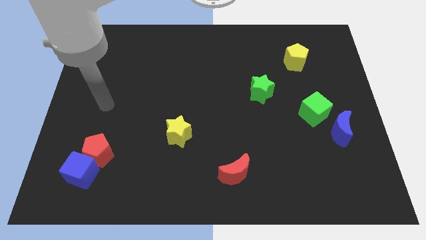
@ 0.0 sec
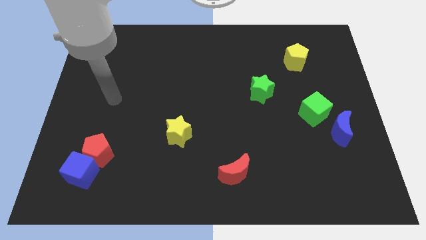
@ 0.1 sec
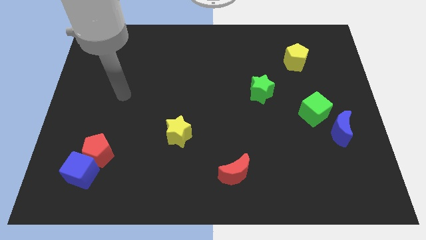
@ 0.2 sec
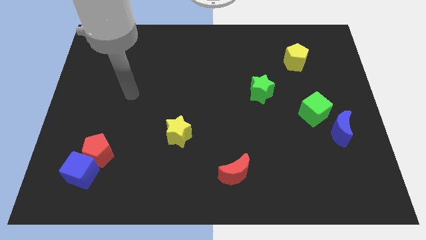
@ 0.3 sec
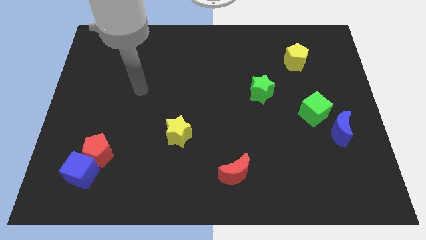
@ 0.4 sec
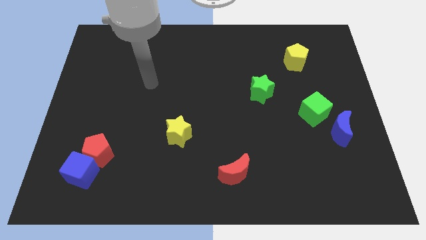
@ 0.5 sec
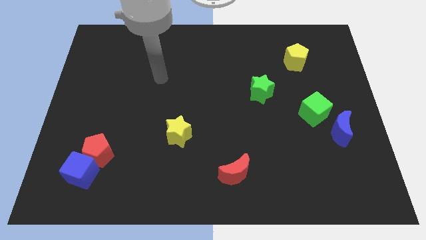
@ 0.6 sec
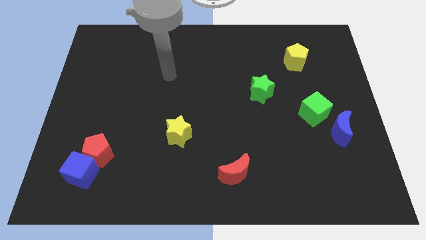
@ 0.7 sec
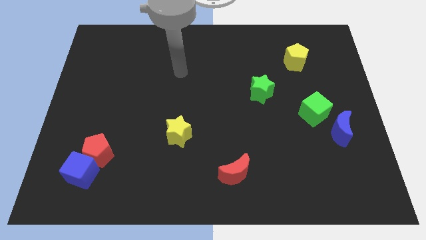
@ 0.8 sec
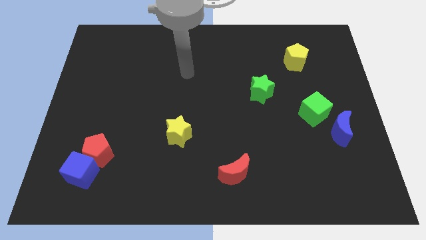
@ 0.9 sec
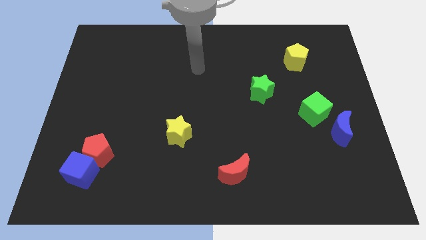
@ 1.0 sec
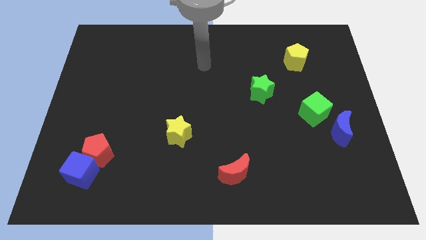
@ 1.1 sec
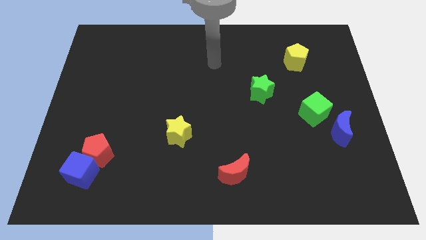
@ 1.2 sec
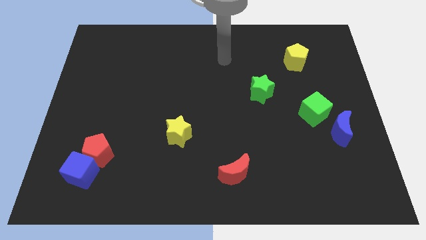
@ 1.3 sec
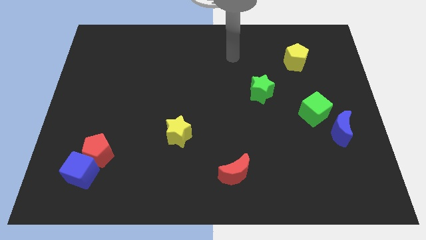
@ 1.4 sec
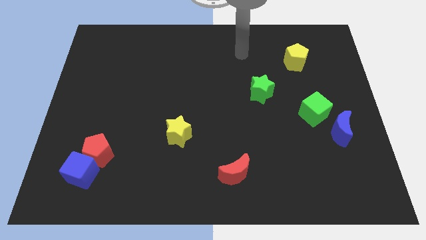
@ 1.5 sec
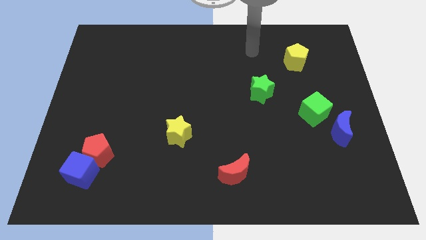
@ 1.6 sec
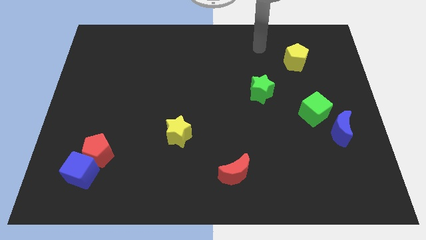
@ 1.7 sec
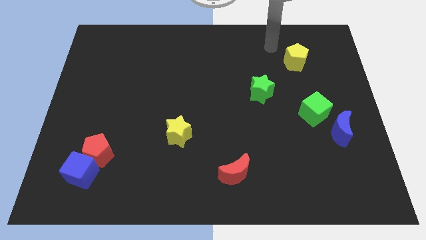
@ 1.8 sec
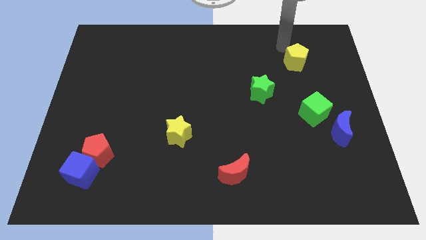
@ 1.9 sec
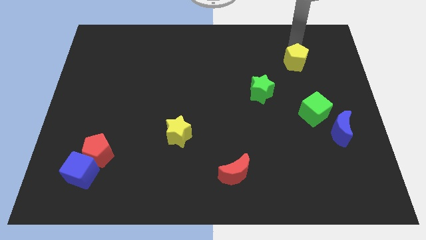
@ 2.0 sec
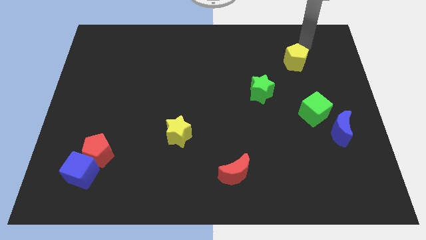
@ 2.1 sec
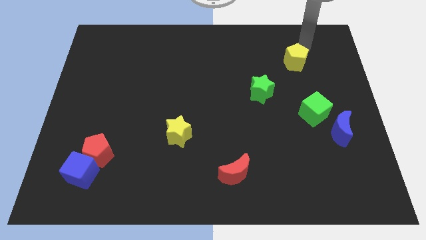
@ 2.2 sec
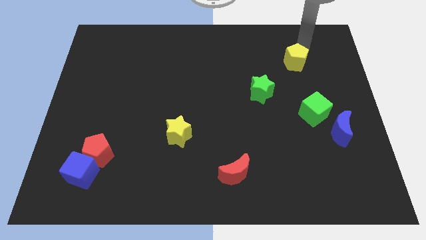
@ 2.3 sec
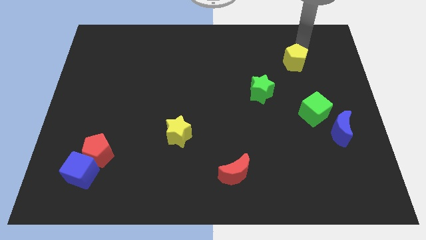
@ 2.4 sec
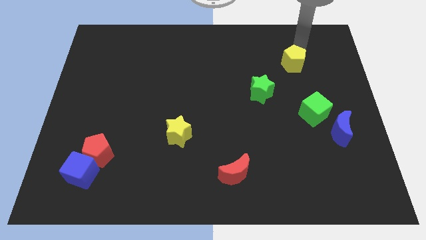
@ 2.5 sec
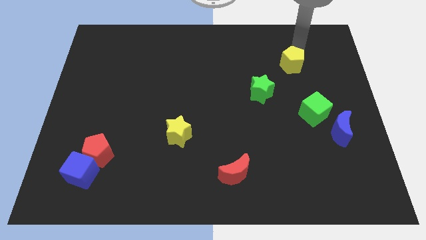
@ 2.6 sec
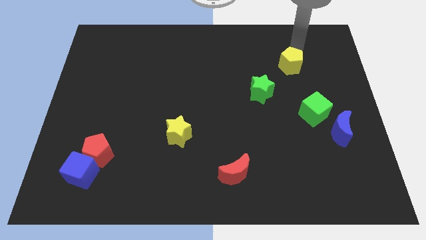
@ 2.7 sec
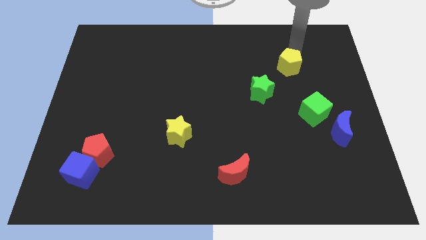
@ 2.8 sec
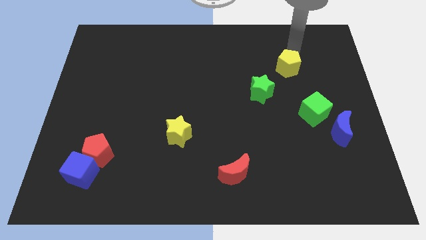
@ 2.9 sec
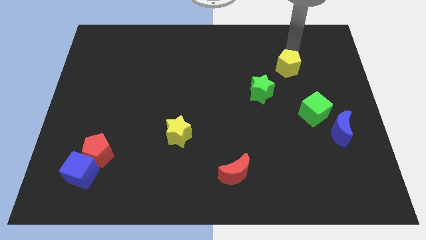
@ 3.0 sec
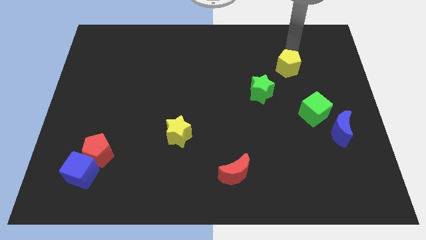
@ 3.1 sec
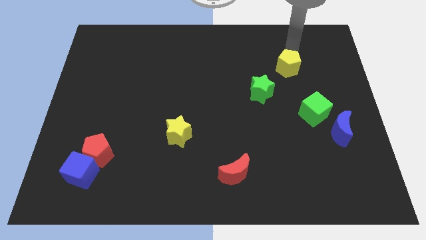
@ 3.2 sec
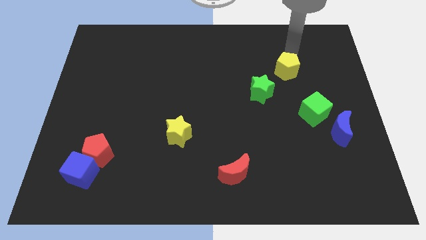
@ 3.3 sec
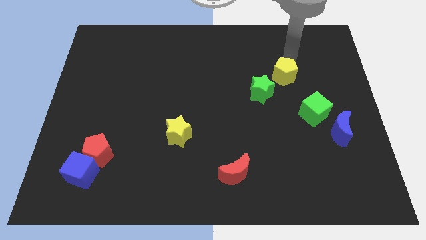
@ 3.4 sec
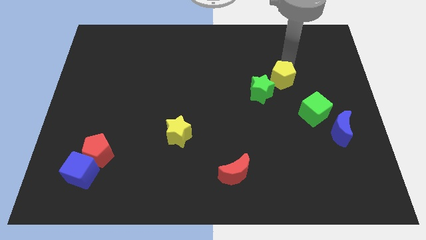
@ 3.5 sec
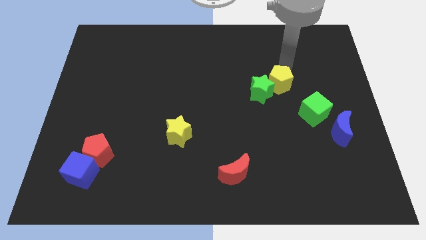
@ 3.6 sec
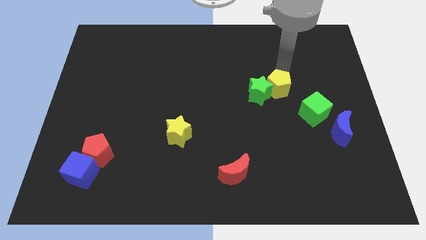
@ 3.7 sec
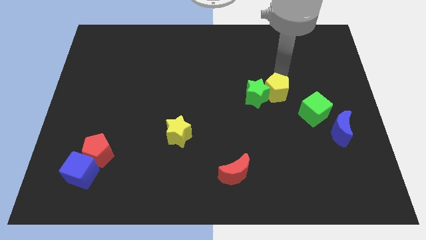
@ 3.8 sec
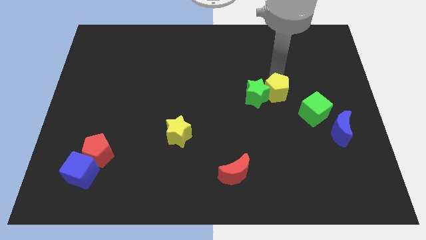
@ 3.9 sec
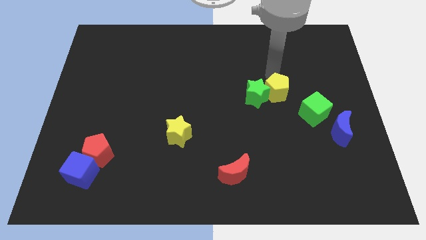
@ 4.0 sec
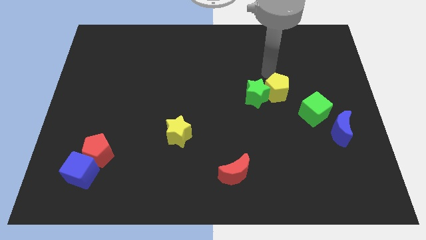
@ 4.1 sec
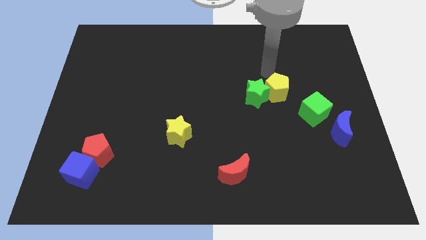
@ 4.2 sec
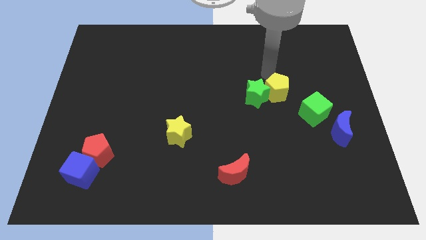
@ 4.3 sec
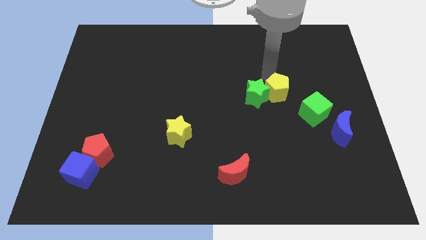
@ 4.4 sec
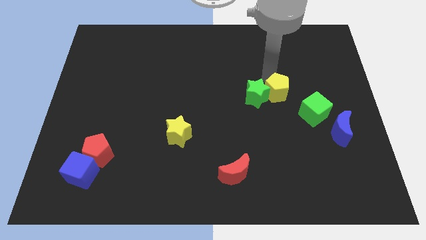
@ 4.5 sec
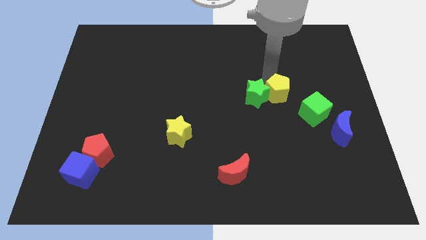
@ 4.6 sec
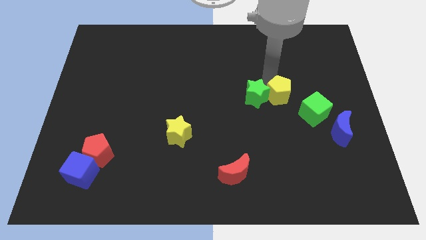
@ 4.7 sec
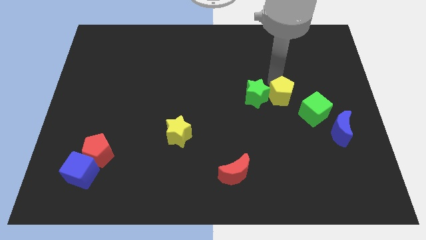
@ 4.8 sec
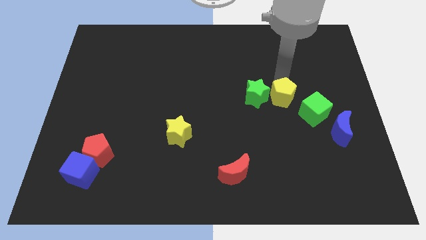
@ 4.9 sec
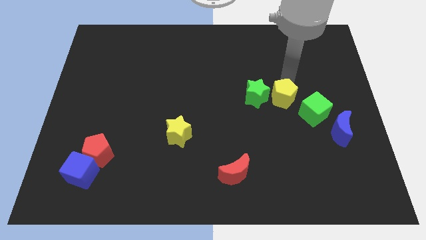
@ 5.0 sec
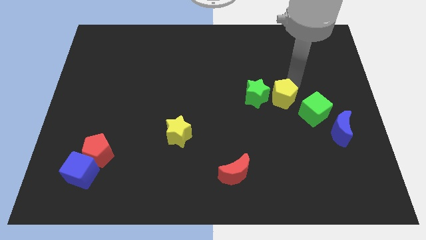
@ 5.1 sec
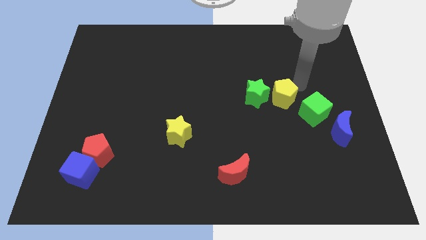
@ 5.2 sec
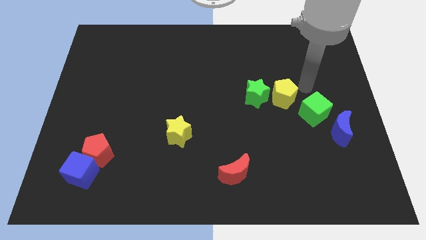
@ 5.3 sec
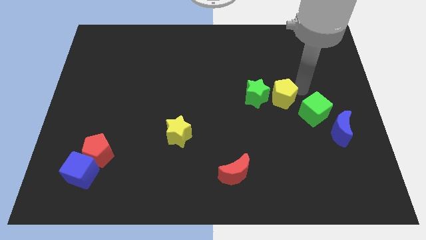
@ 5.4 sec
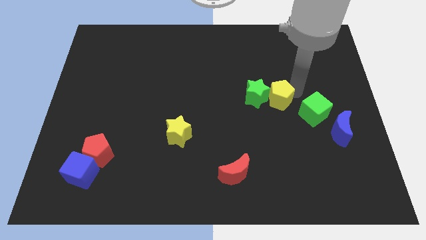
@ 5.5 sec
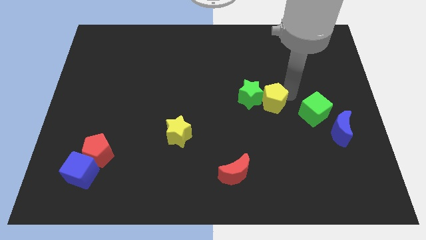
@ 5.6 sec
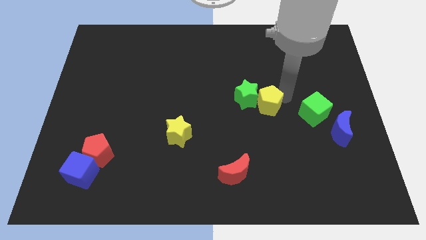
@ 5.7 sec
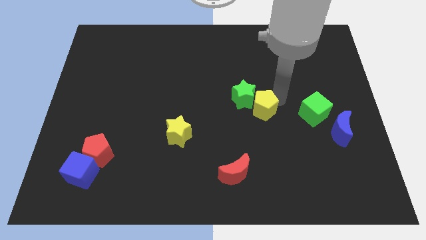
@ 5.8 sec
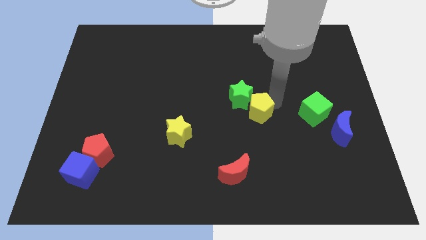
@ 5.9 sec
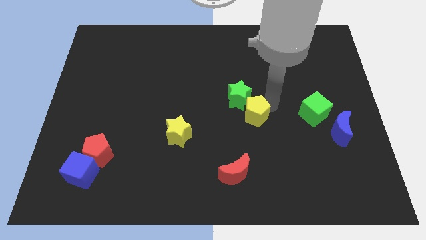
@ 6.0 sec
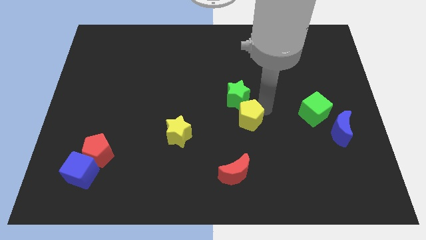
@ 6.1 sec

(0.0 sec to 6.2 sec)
put the yellow pentagon to the top side of the red moon
